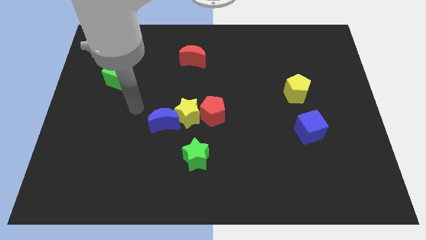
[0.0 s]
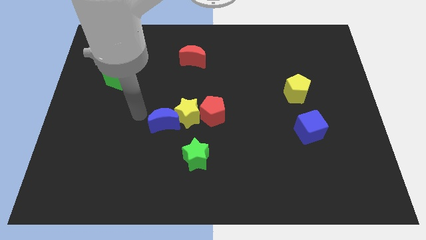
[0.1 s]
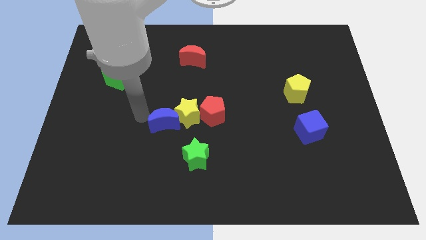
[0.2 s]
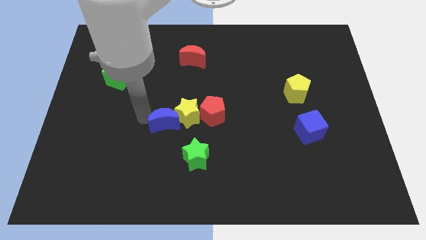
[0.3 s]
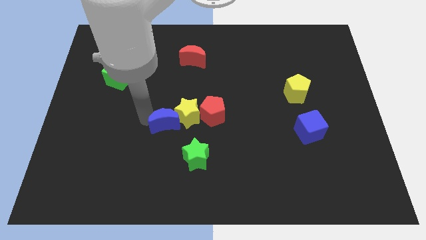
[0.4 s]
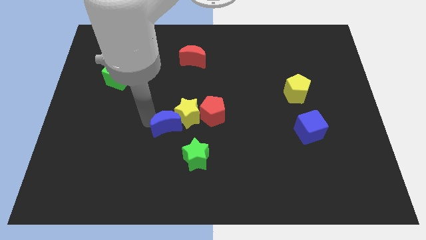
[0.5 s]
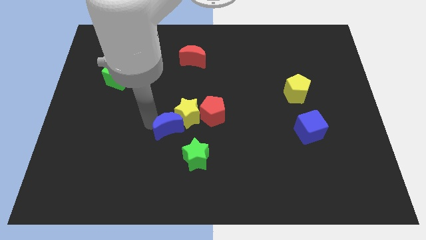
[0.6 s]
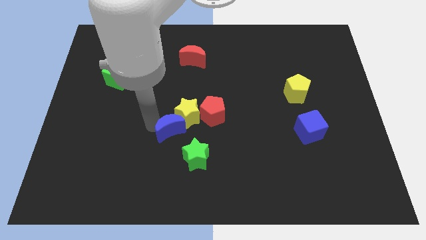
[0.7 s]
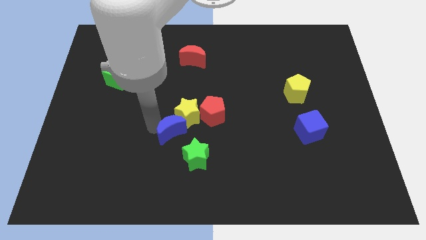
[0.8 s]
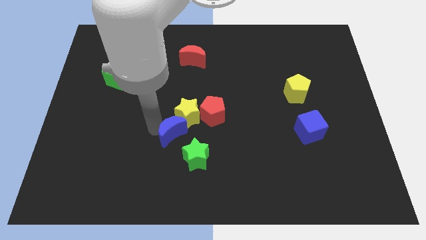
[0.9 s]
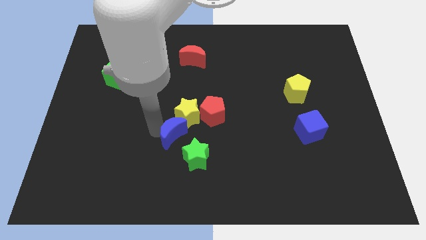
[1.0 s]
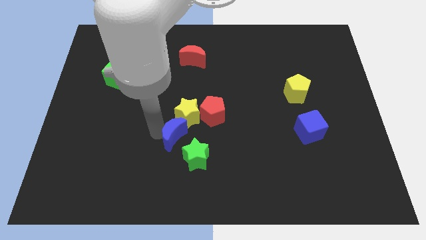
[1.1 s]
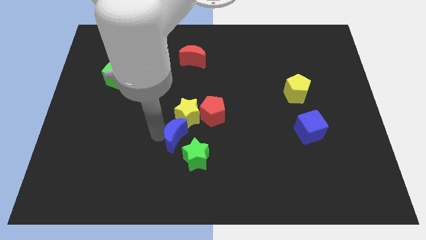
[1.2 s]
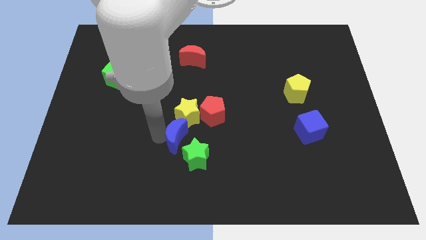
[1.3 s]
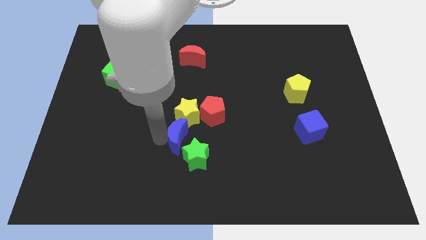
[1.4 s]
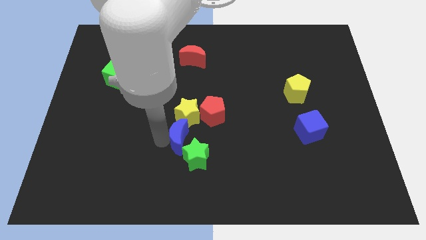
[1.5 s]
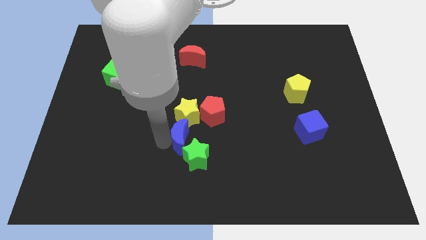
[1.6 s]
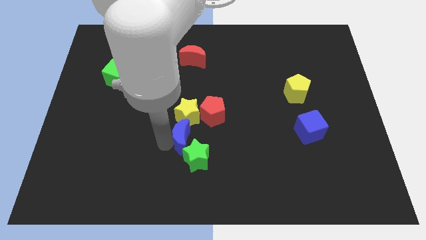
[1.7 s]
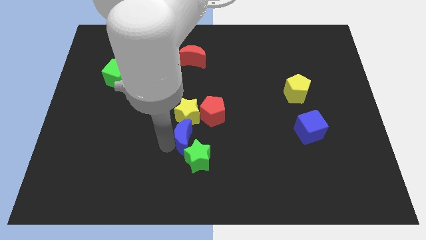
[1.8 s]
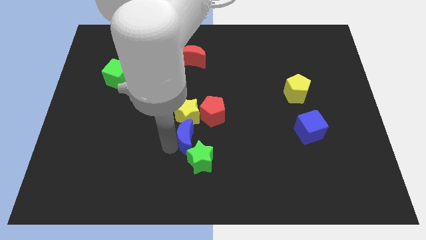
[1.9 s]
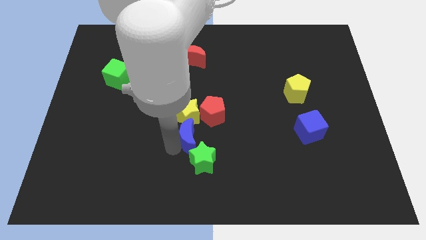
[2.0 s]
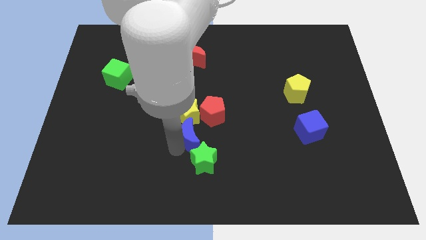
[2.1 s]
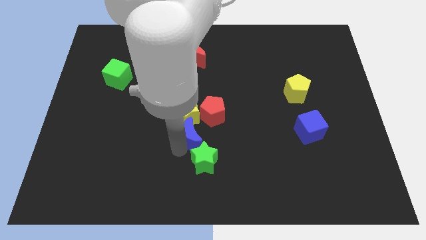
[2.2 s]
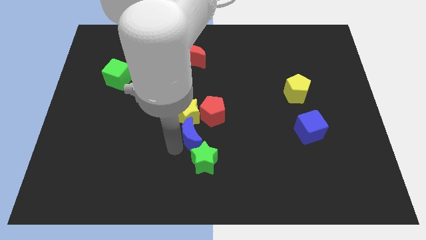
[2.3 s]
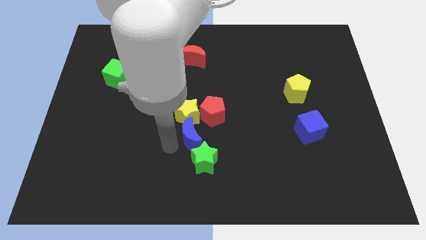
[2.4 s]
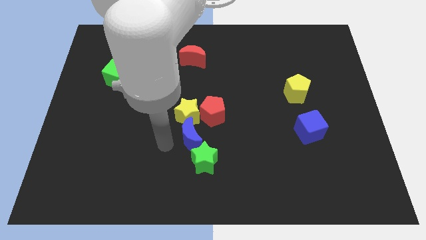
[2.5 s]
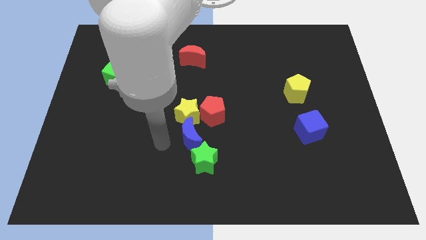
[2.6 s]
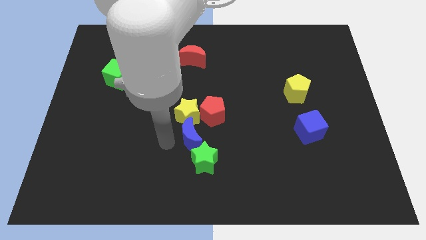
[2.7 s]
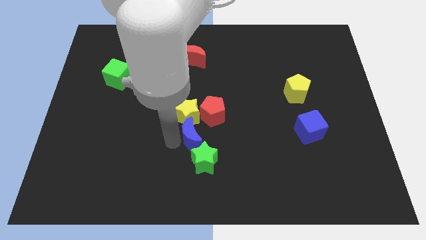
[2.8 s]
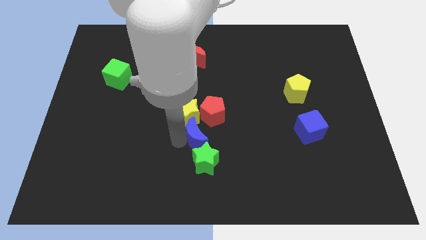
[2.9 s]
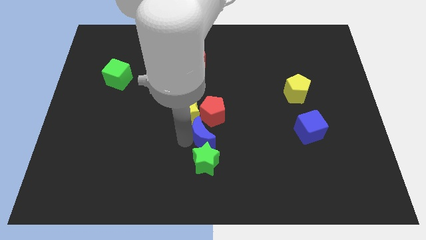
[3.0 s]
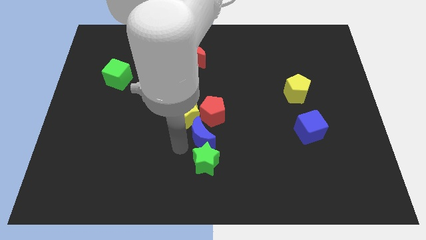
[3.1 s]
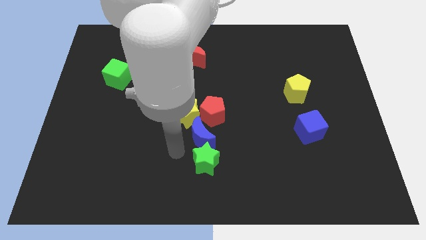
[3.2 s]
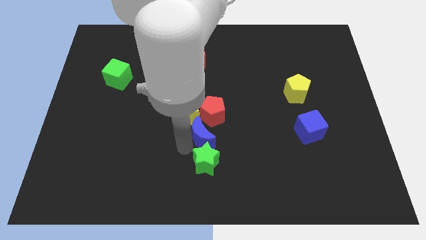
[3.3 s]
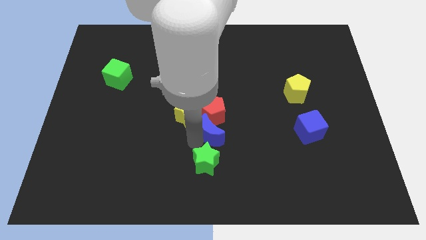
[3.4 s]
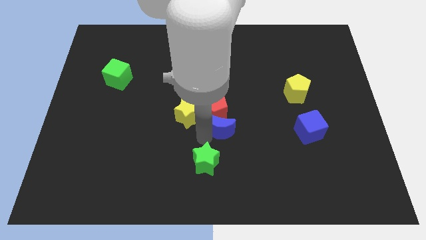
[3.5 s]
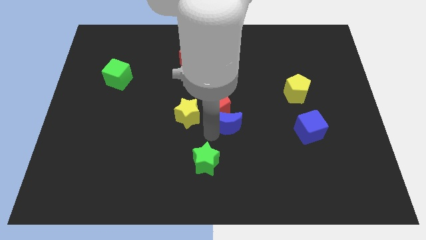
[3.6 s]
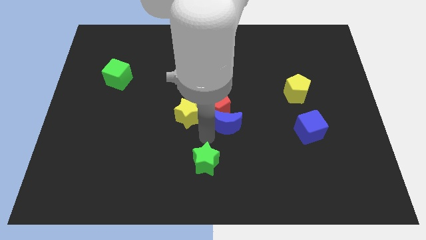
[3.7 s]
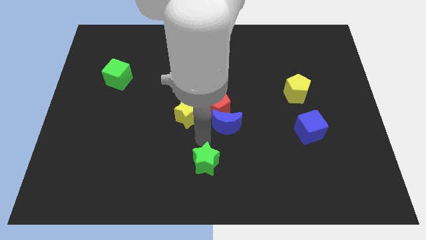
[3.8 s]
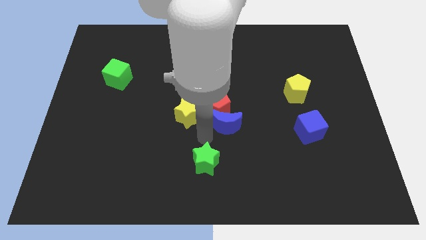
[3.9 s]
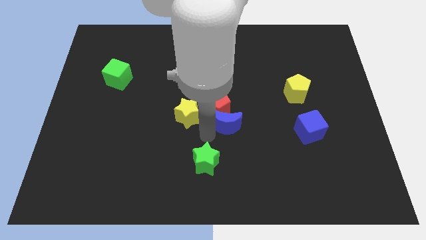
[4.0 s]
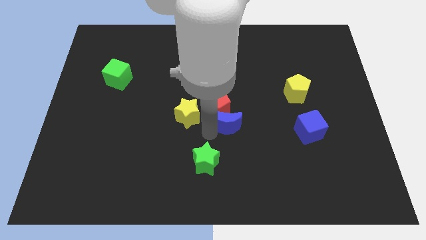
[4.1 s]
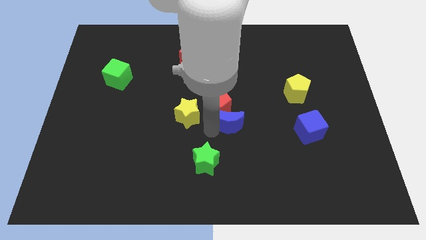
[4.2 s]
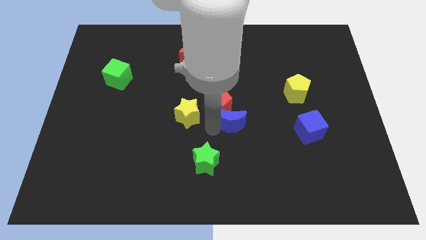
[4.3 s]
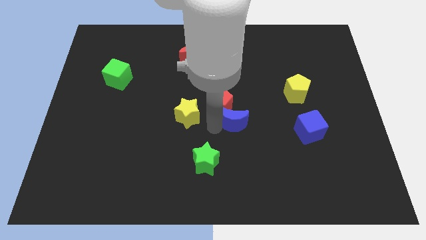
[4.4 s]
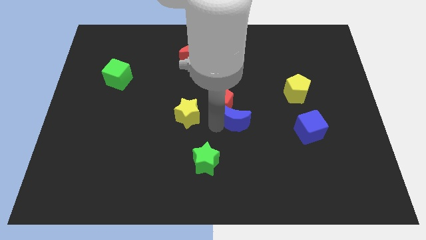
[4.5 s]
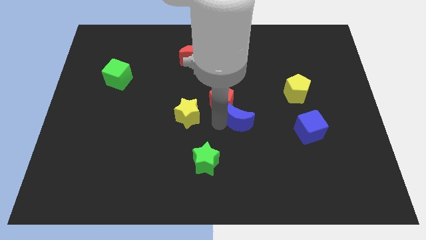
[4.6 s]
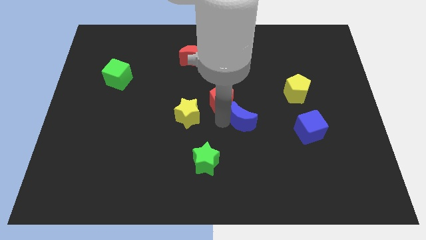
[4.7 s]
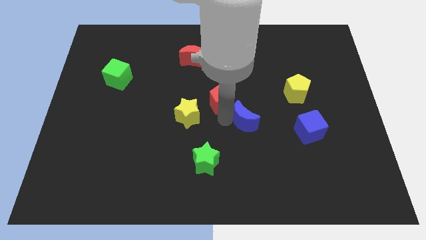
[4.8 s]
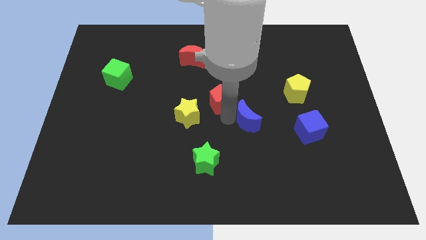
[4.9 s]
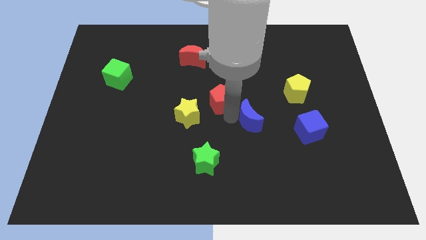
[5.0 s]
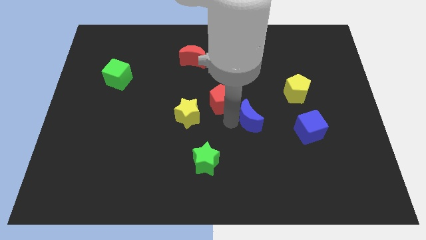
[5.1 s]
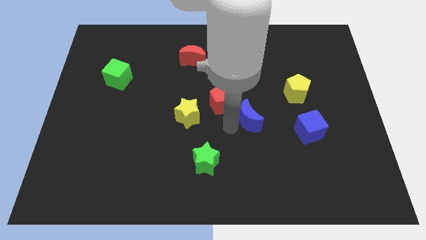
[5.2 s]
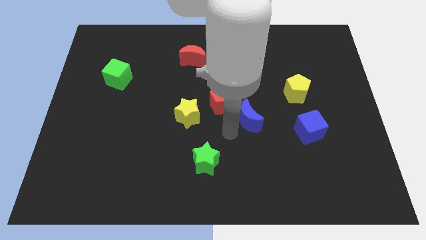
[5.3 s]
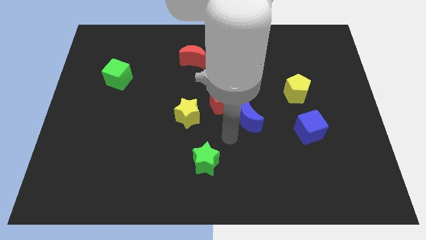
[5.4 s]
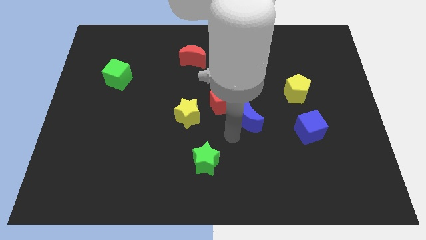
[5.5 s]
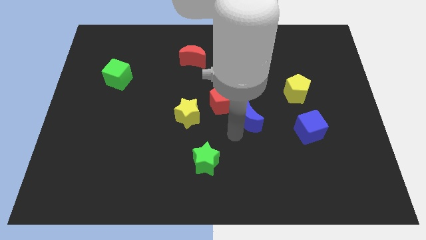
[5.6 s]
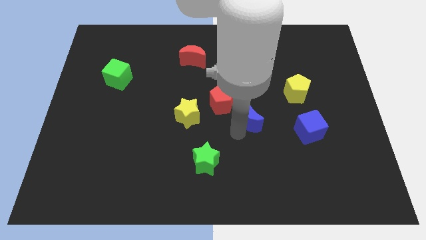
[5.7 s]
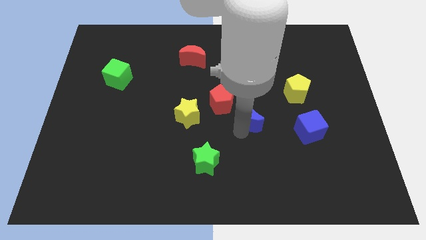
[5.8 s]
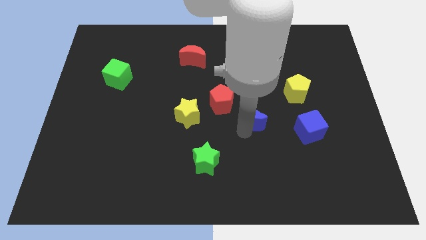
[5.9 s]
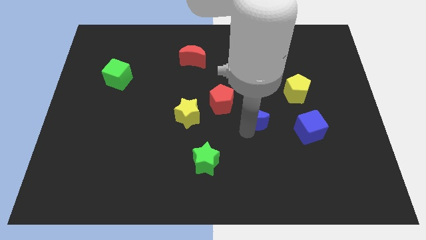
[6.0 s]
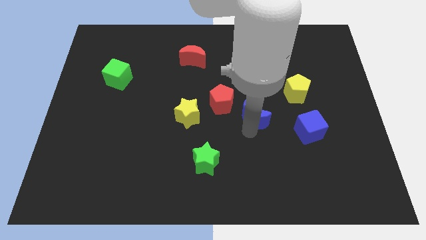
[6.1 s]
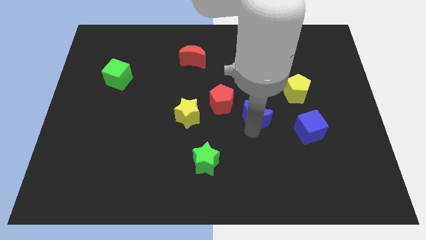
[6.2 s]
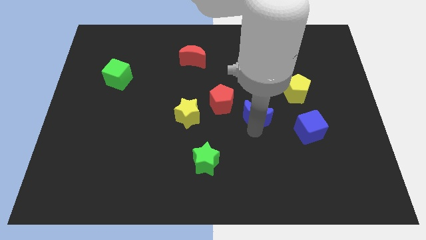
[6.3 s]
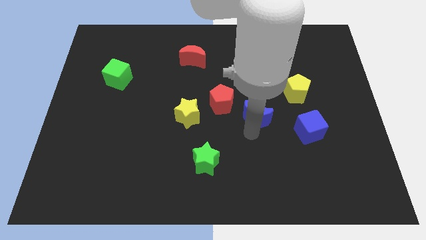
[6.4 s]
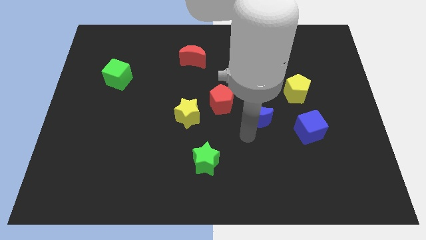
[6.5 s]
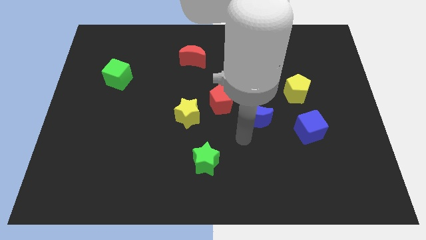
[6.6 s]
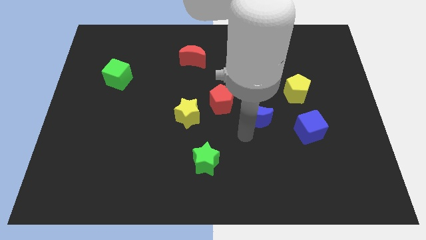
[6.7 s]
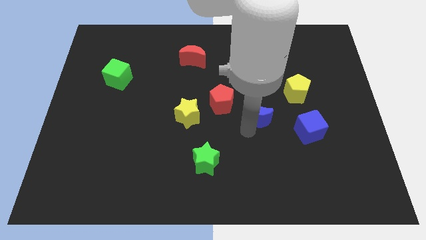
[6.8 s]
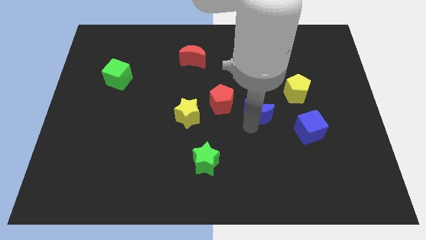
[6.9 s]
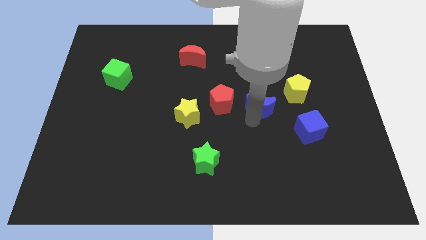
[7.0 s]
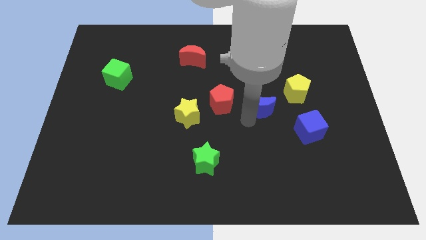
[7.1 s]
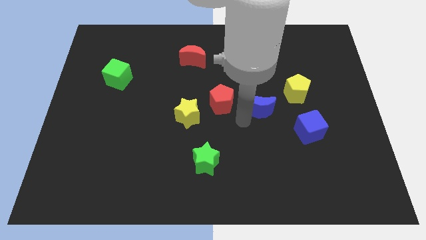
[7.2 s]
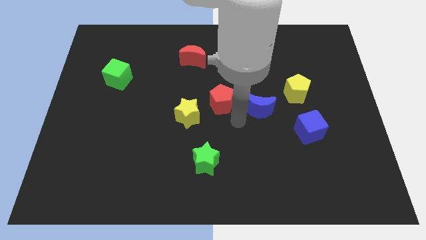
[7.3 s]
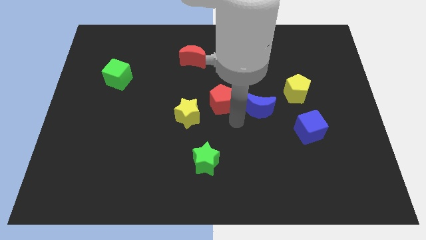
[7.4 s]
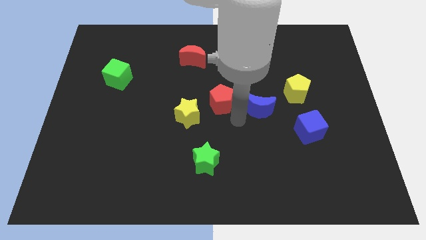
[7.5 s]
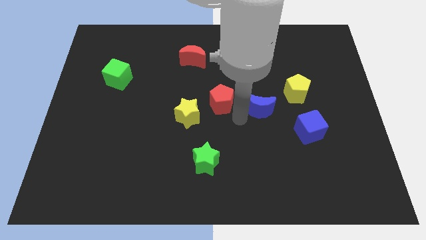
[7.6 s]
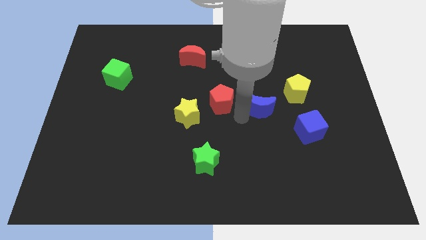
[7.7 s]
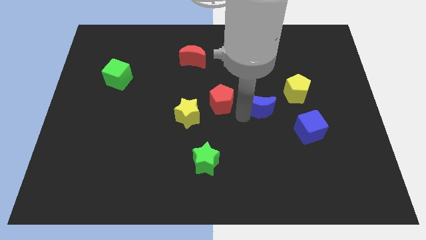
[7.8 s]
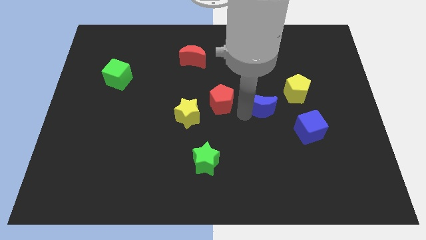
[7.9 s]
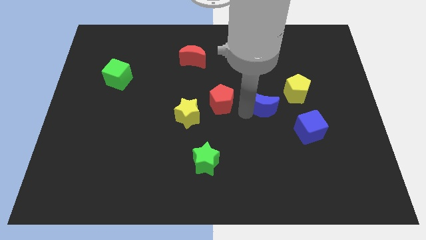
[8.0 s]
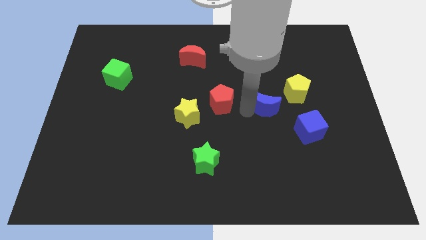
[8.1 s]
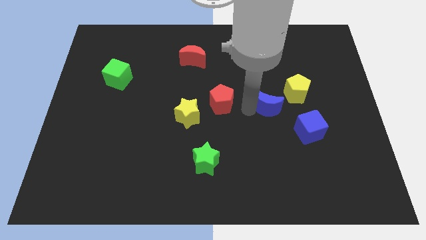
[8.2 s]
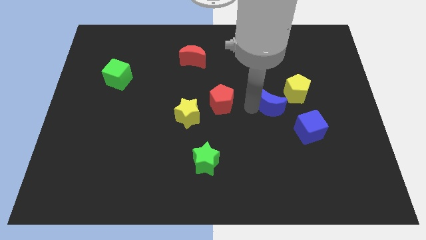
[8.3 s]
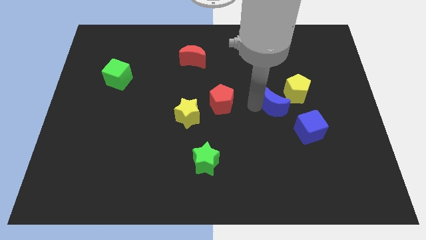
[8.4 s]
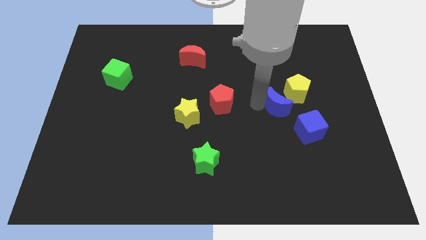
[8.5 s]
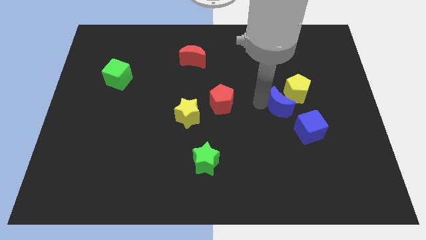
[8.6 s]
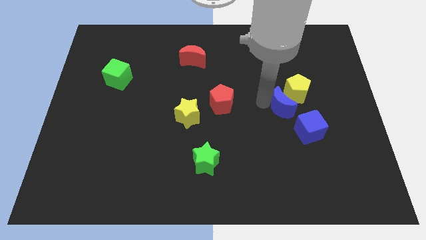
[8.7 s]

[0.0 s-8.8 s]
put the blue moon next to the yellow pentagon
